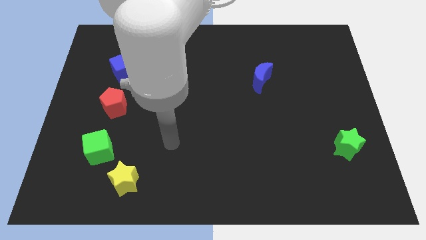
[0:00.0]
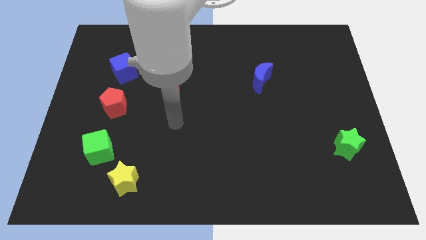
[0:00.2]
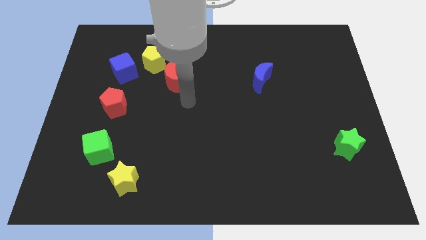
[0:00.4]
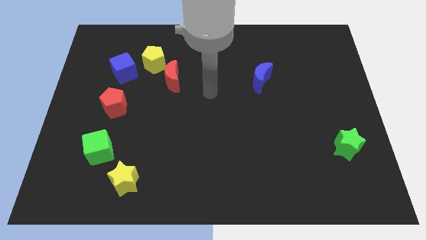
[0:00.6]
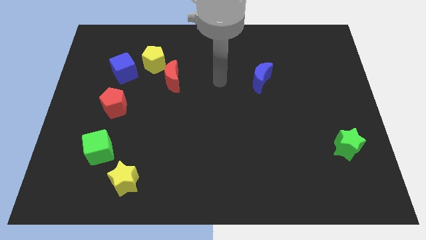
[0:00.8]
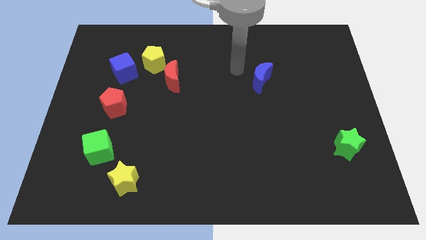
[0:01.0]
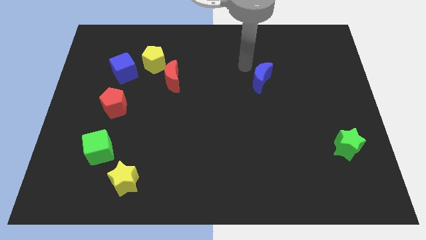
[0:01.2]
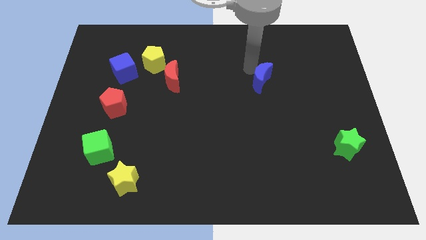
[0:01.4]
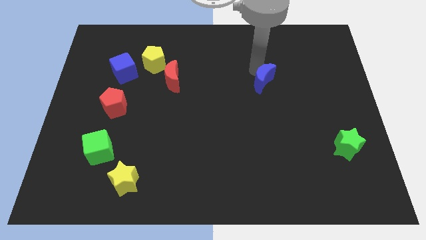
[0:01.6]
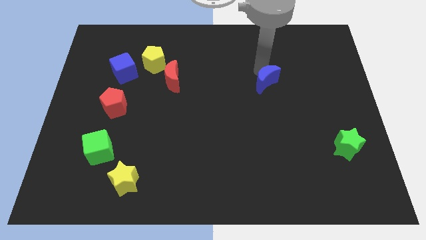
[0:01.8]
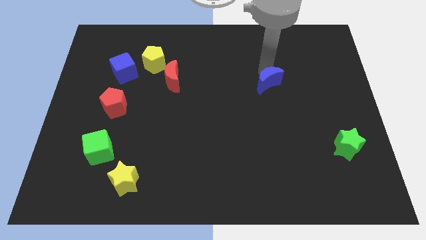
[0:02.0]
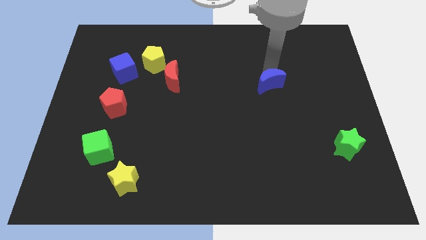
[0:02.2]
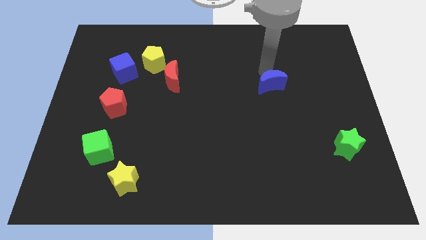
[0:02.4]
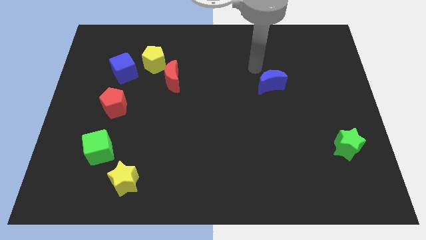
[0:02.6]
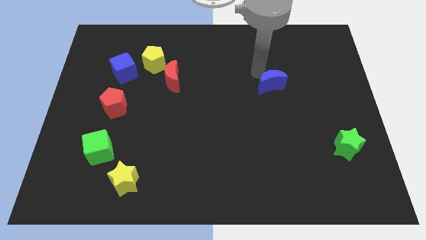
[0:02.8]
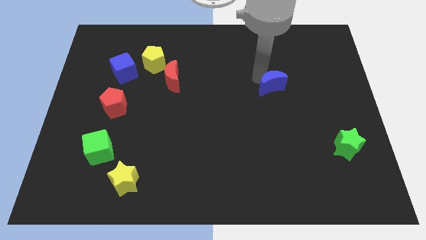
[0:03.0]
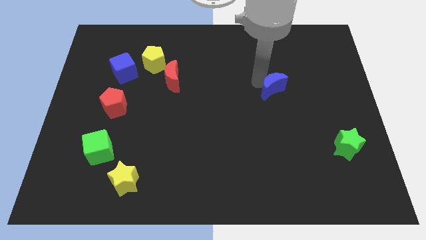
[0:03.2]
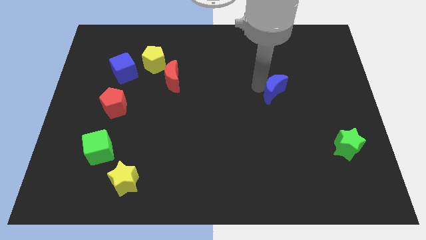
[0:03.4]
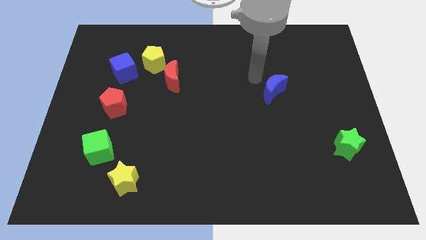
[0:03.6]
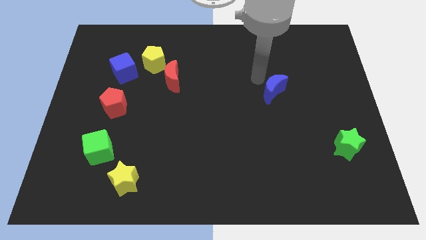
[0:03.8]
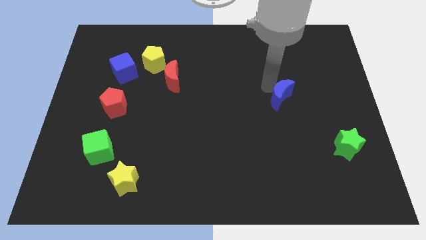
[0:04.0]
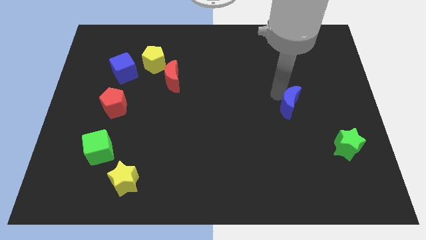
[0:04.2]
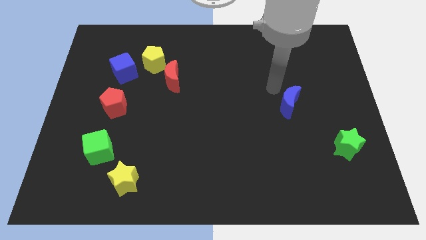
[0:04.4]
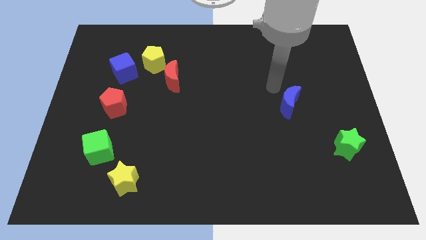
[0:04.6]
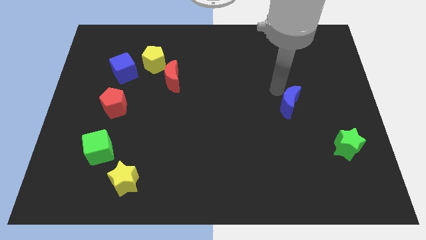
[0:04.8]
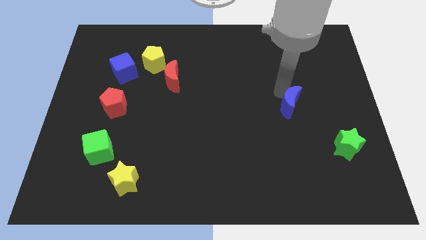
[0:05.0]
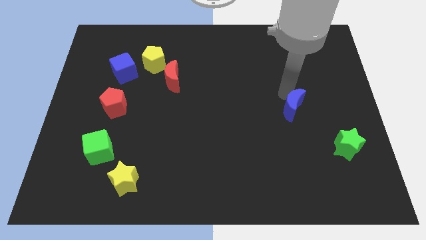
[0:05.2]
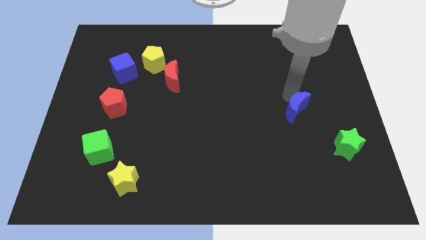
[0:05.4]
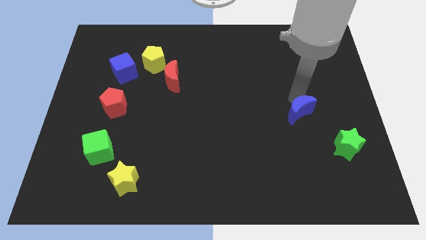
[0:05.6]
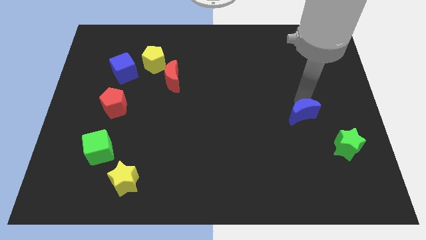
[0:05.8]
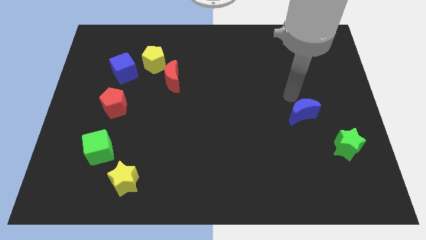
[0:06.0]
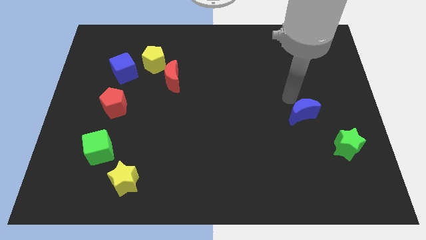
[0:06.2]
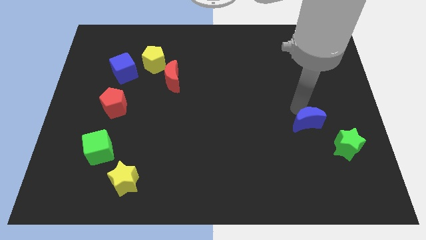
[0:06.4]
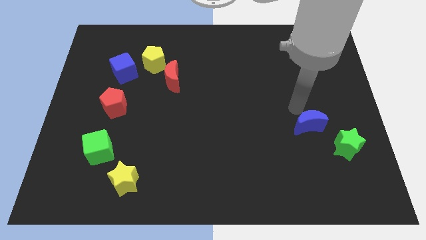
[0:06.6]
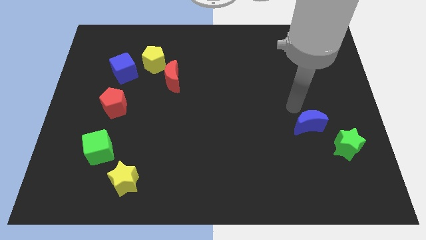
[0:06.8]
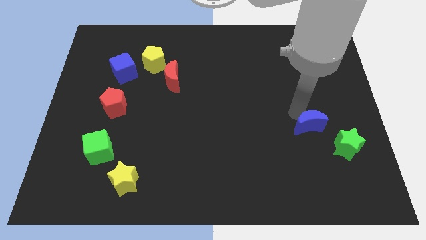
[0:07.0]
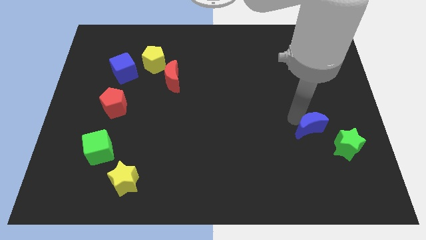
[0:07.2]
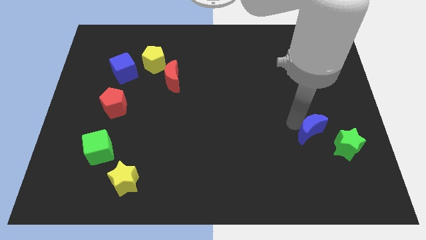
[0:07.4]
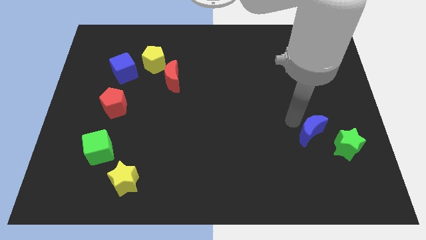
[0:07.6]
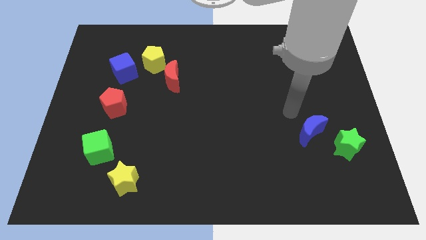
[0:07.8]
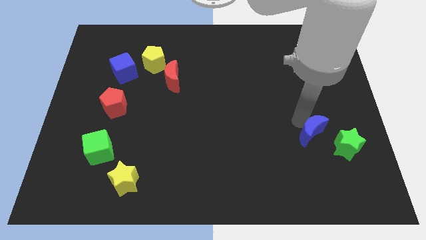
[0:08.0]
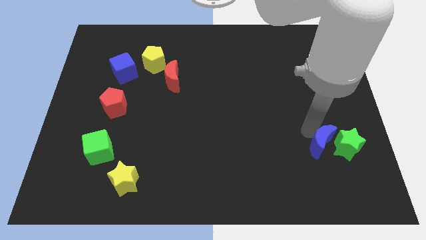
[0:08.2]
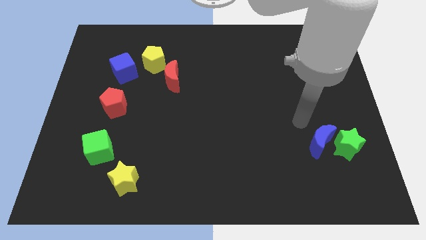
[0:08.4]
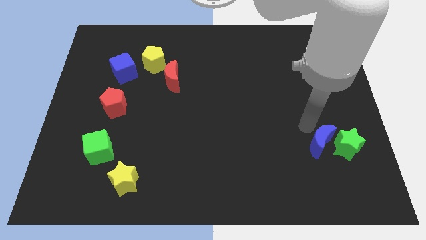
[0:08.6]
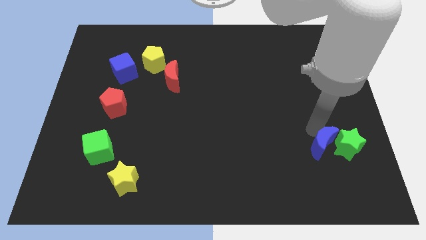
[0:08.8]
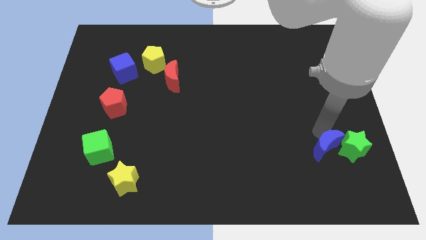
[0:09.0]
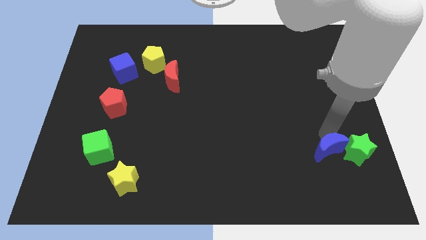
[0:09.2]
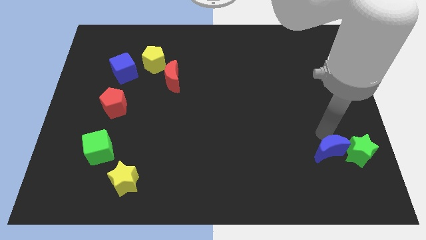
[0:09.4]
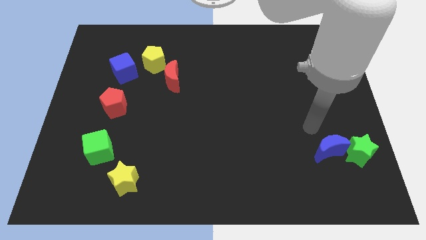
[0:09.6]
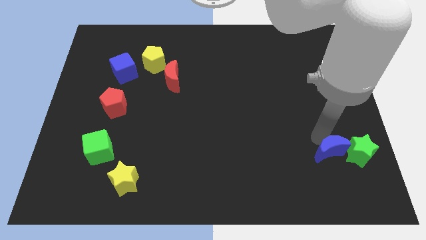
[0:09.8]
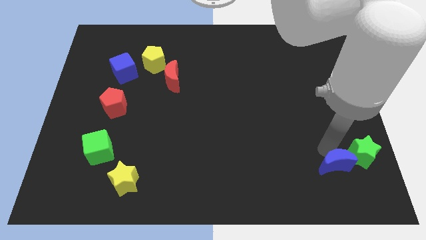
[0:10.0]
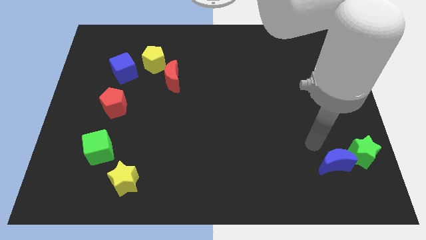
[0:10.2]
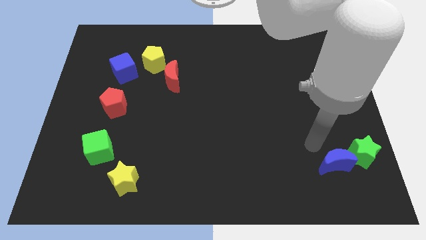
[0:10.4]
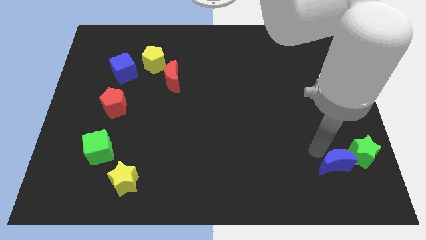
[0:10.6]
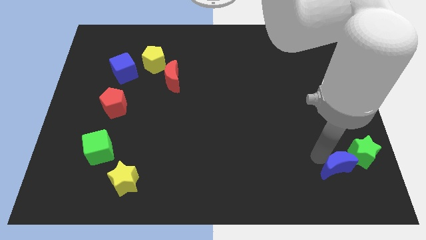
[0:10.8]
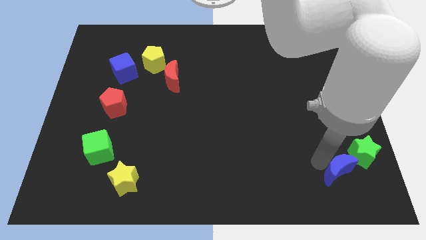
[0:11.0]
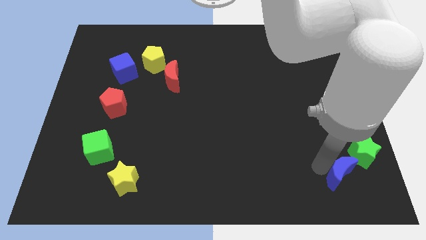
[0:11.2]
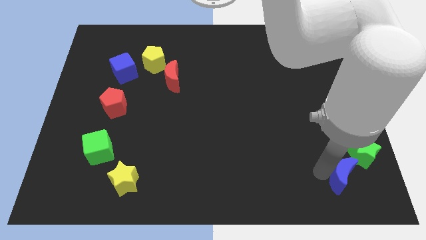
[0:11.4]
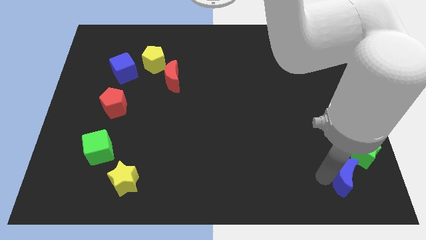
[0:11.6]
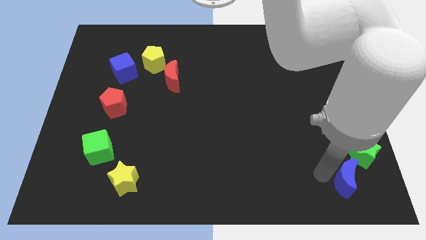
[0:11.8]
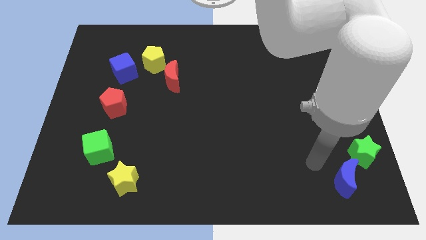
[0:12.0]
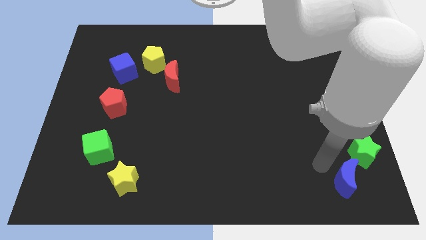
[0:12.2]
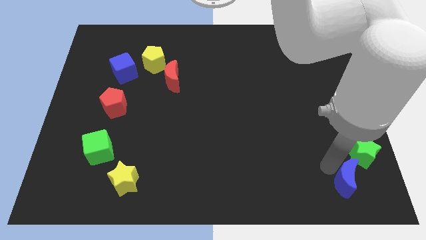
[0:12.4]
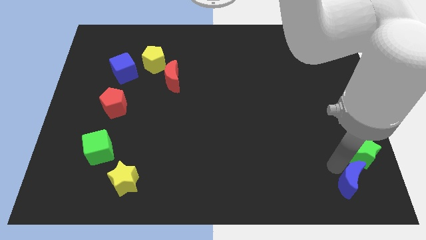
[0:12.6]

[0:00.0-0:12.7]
put the blue moon to the bottom right corner

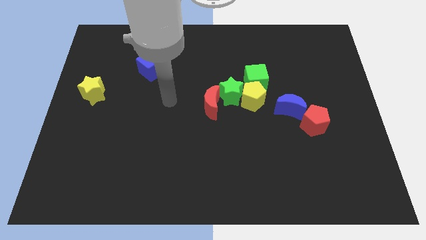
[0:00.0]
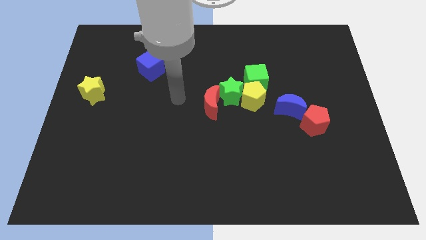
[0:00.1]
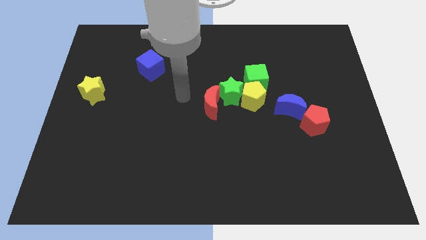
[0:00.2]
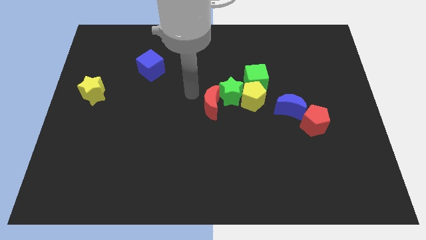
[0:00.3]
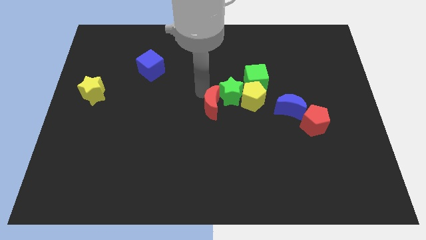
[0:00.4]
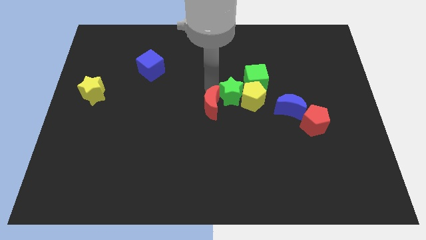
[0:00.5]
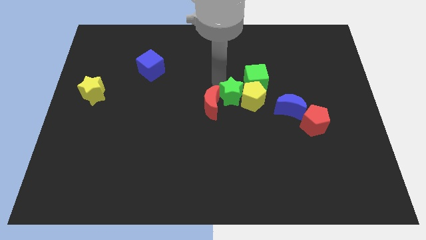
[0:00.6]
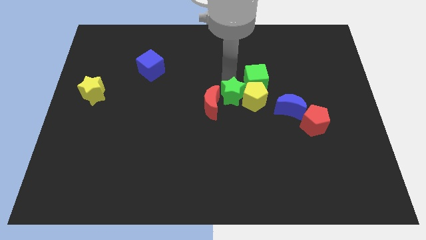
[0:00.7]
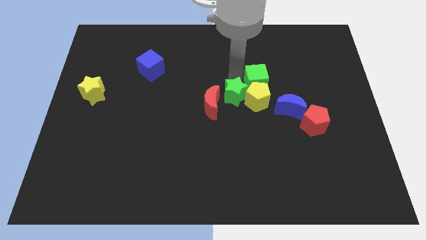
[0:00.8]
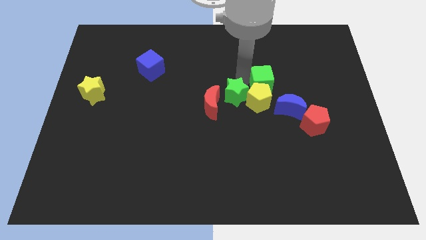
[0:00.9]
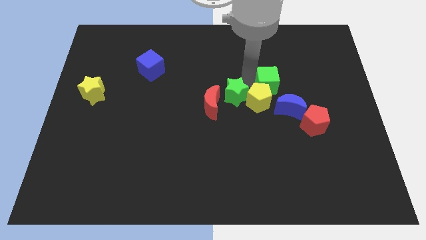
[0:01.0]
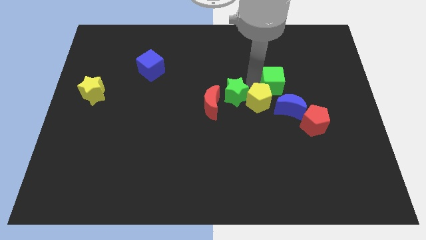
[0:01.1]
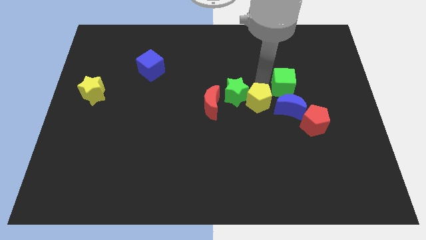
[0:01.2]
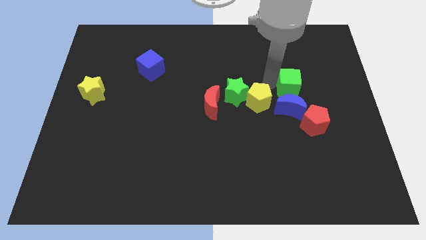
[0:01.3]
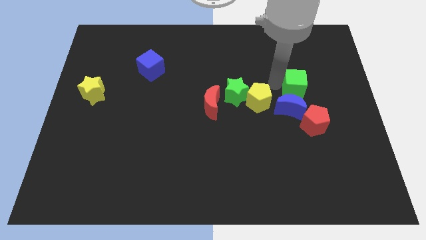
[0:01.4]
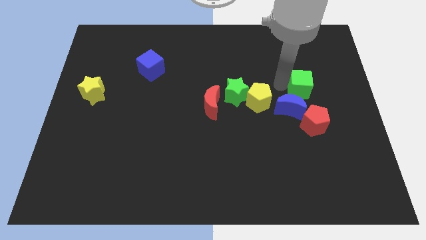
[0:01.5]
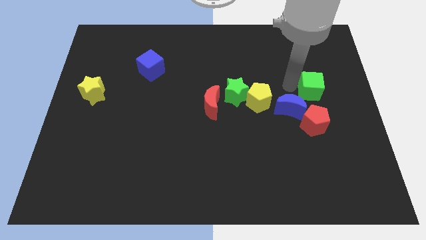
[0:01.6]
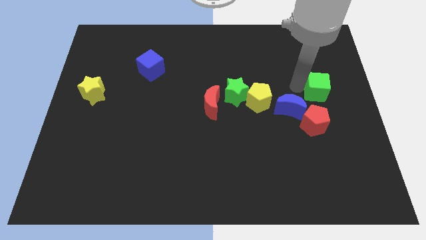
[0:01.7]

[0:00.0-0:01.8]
slide the green cube to the center right
